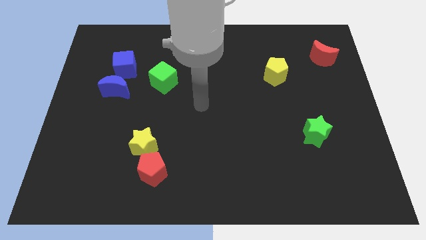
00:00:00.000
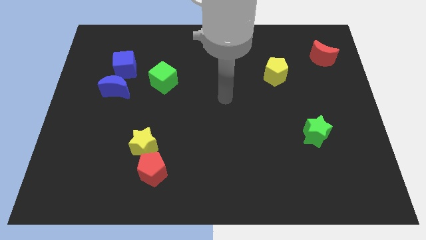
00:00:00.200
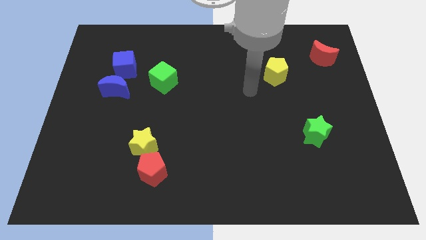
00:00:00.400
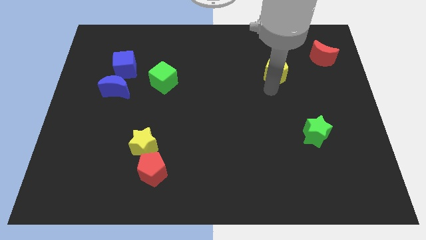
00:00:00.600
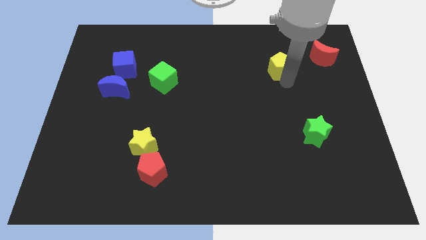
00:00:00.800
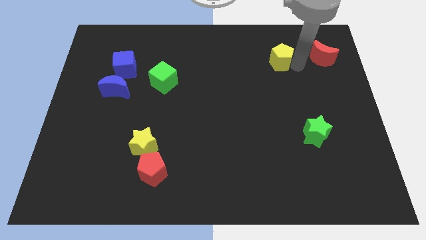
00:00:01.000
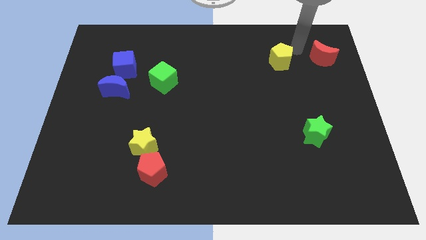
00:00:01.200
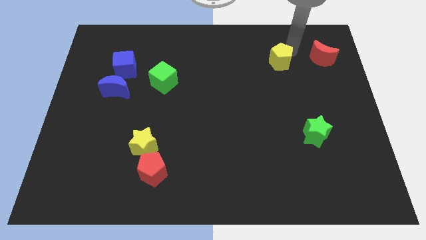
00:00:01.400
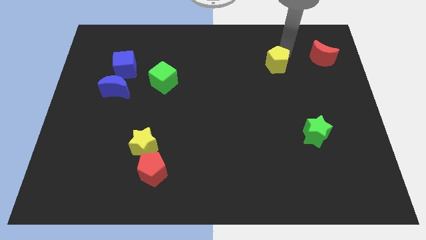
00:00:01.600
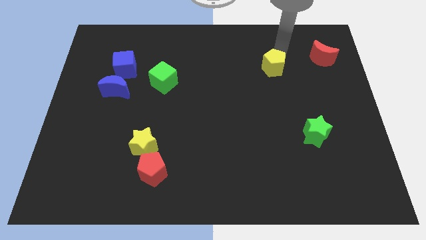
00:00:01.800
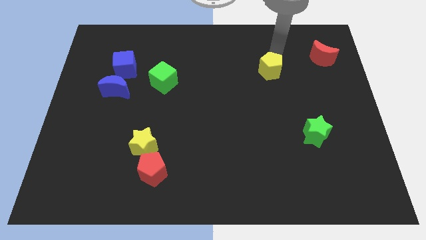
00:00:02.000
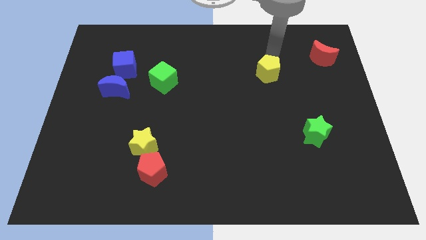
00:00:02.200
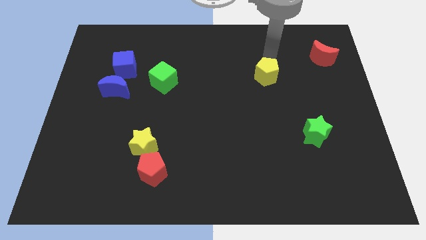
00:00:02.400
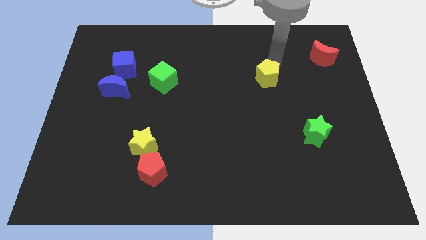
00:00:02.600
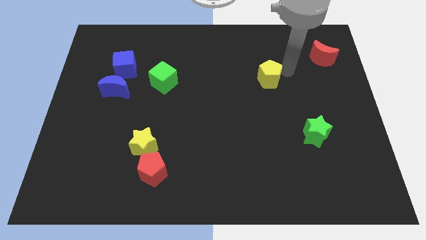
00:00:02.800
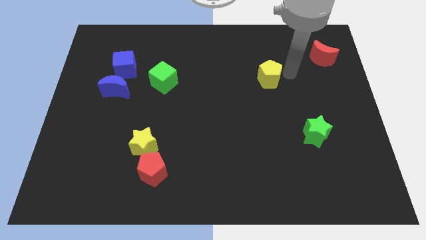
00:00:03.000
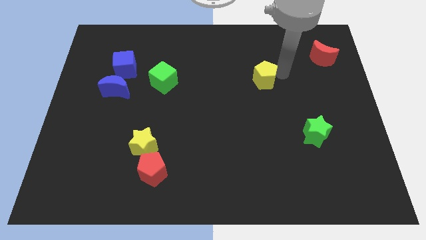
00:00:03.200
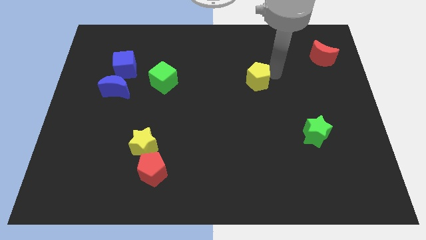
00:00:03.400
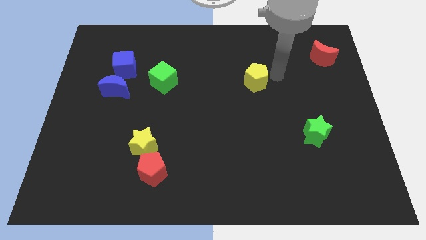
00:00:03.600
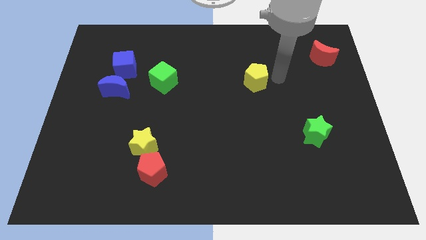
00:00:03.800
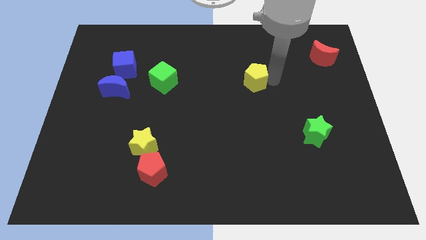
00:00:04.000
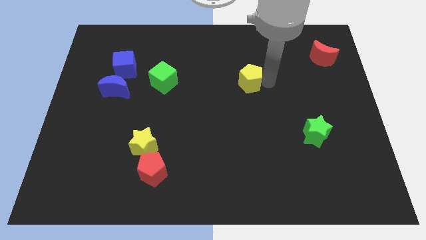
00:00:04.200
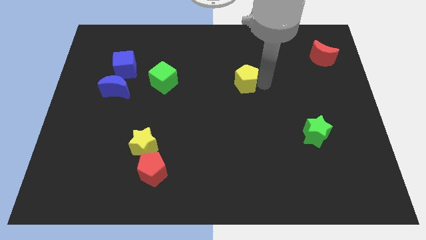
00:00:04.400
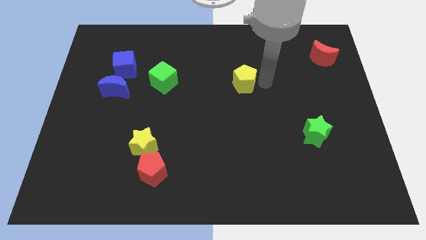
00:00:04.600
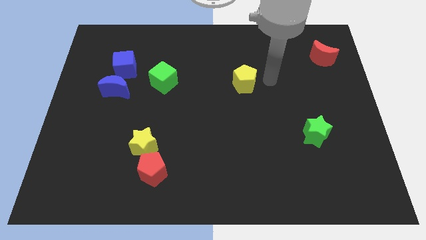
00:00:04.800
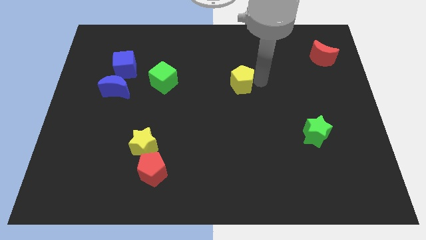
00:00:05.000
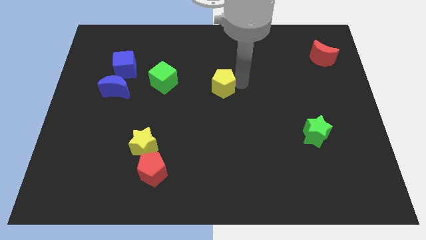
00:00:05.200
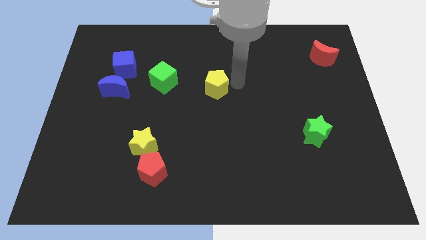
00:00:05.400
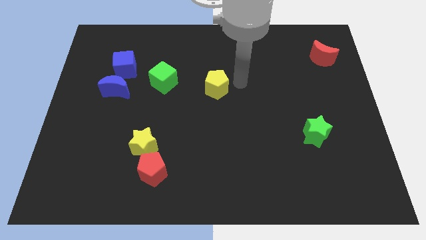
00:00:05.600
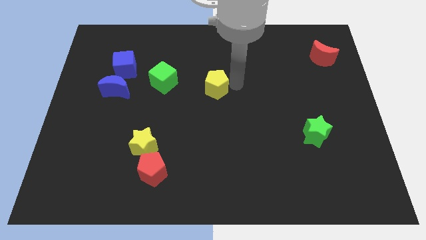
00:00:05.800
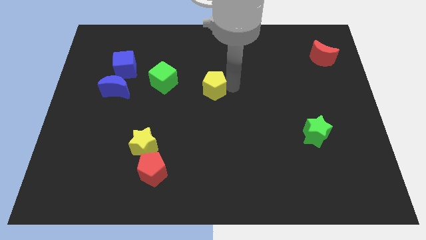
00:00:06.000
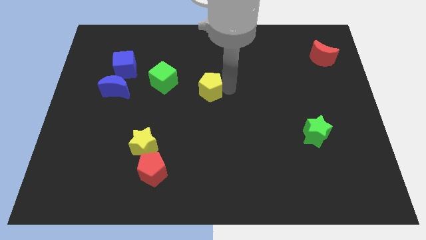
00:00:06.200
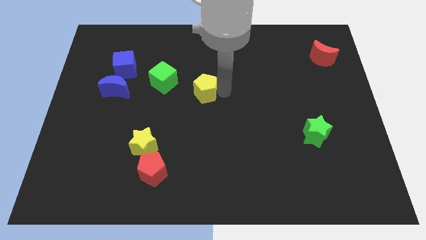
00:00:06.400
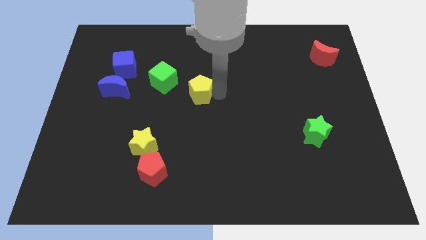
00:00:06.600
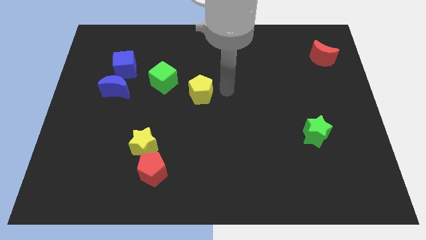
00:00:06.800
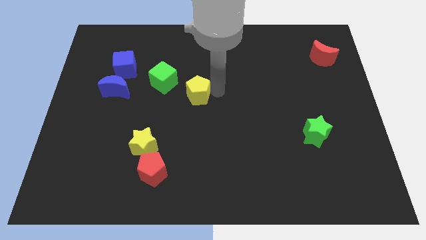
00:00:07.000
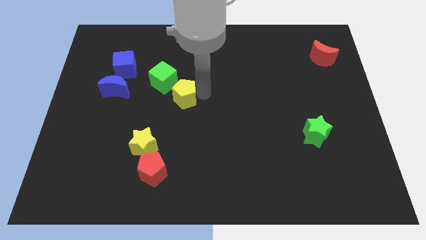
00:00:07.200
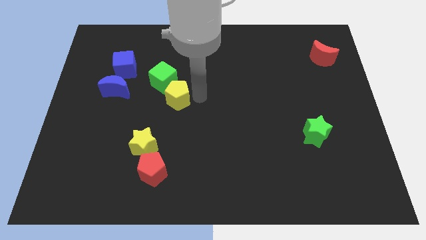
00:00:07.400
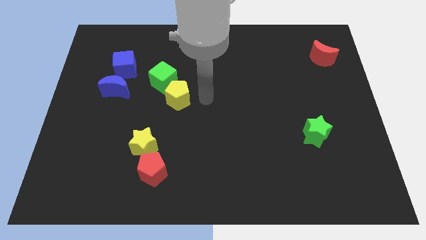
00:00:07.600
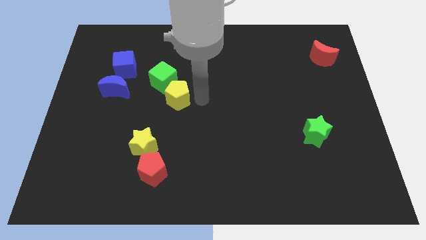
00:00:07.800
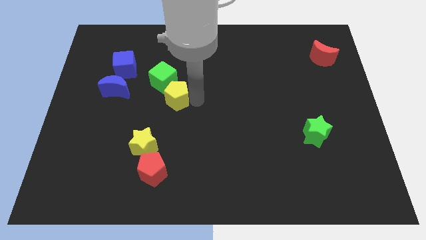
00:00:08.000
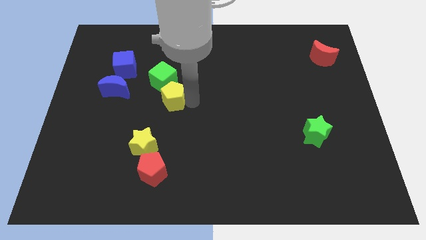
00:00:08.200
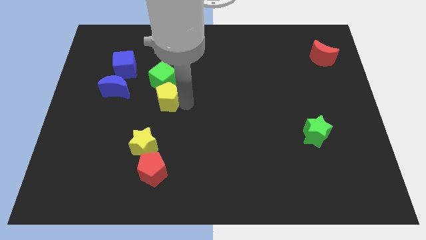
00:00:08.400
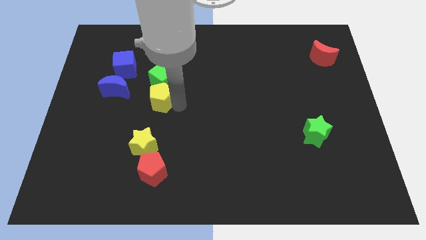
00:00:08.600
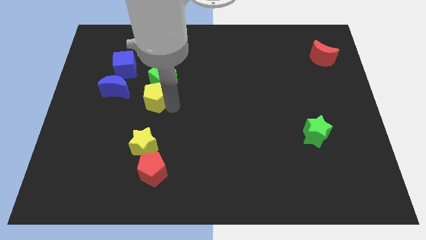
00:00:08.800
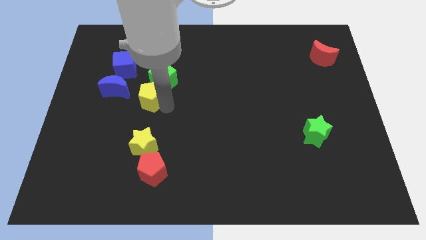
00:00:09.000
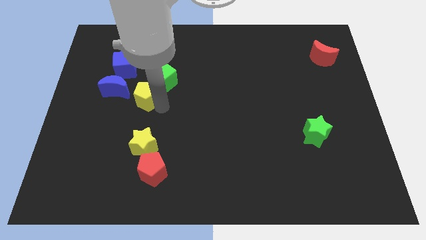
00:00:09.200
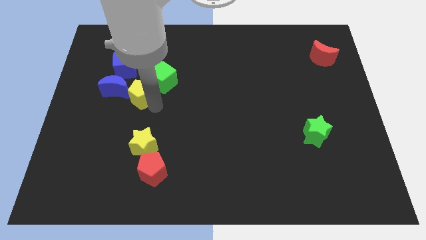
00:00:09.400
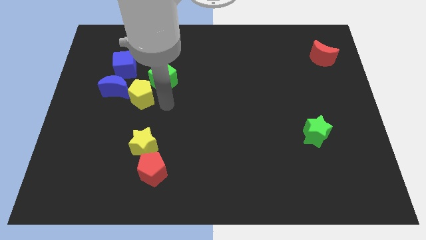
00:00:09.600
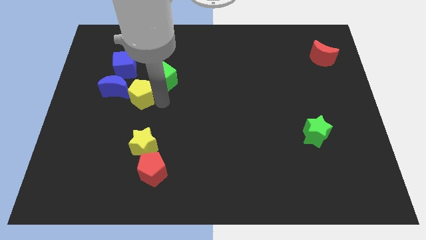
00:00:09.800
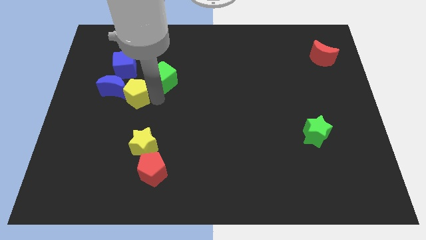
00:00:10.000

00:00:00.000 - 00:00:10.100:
move the yellow pentagon to the blue moon
